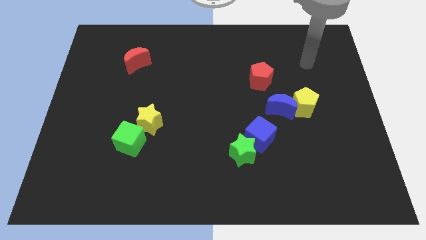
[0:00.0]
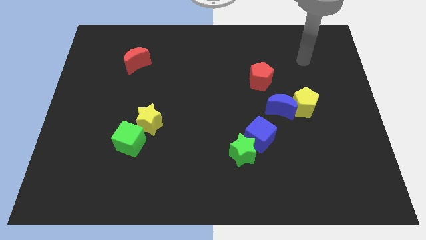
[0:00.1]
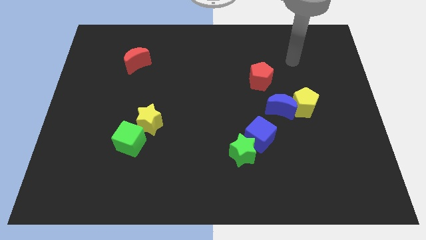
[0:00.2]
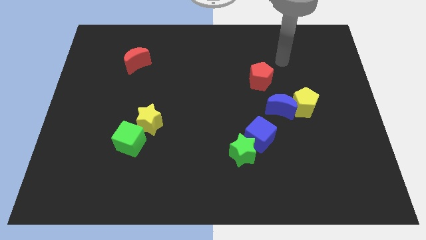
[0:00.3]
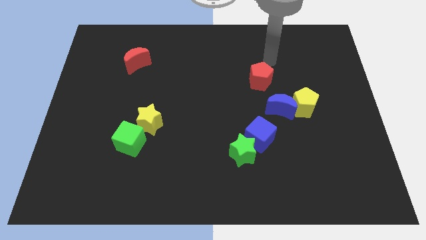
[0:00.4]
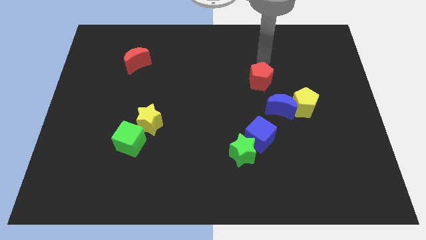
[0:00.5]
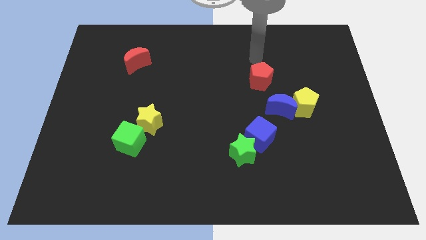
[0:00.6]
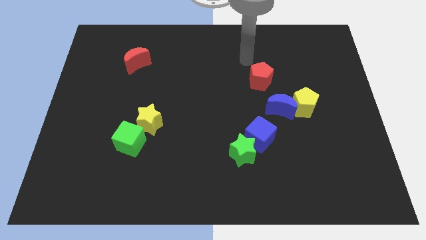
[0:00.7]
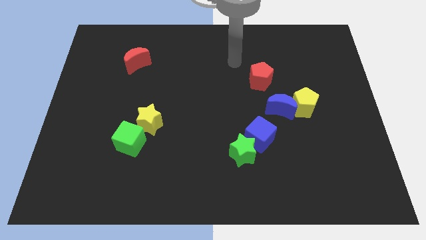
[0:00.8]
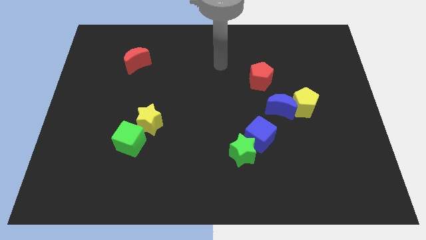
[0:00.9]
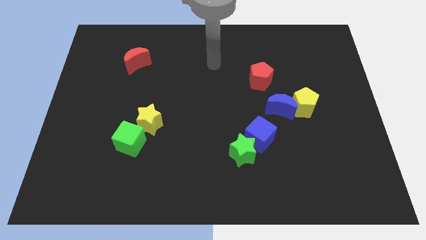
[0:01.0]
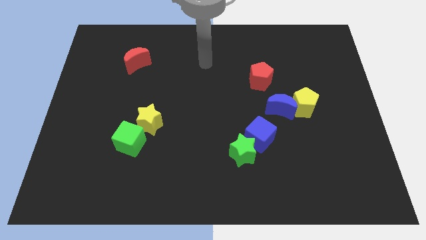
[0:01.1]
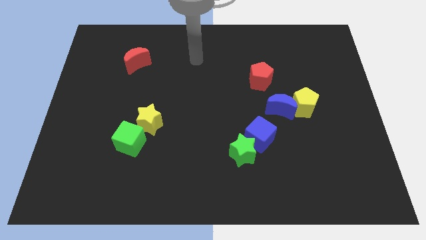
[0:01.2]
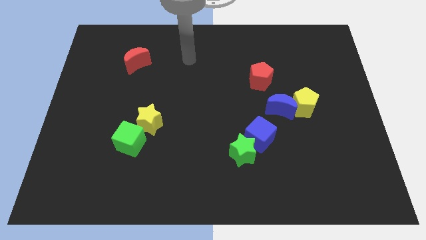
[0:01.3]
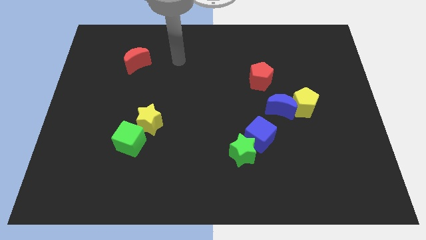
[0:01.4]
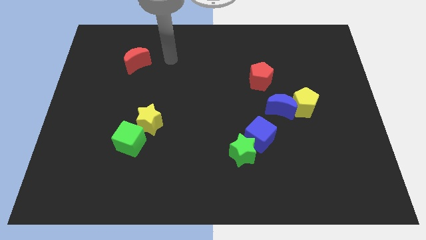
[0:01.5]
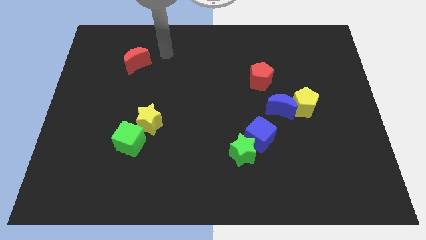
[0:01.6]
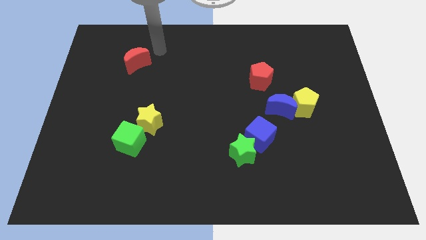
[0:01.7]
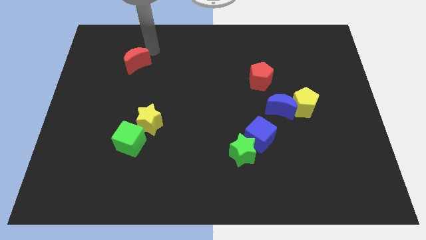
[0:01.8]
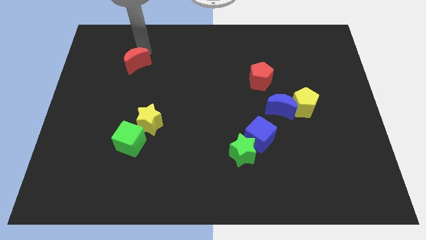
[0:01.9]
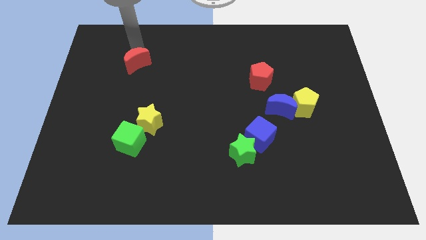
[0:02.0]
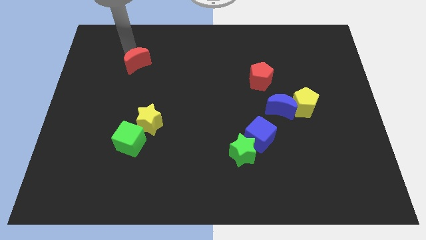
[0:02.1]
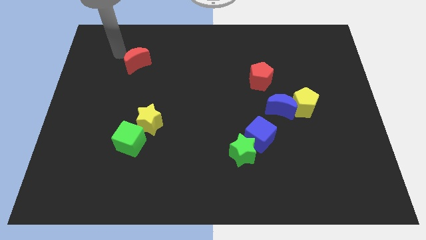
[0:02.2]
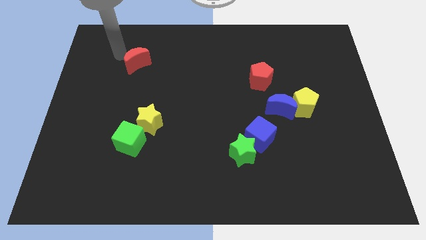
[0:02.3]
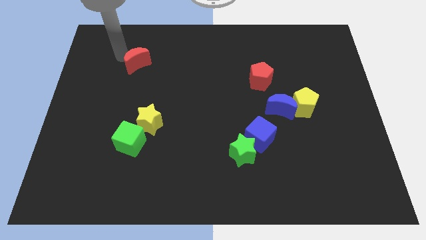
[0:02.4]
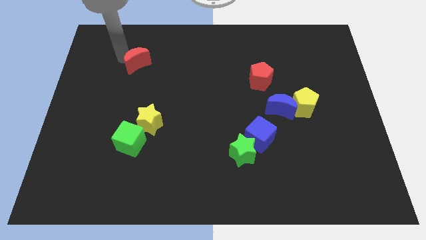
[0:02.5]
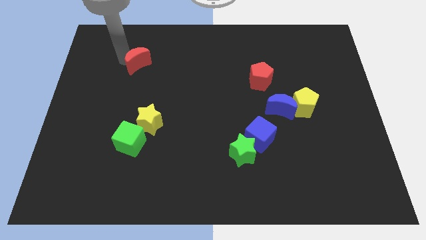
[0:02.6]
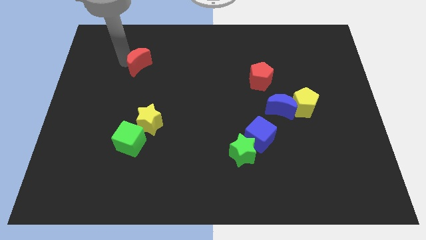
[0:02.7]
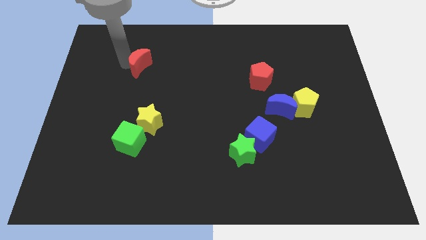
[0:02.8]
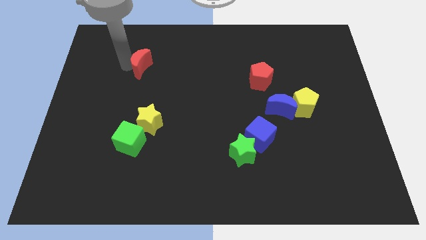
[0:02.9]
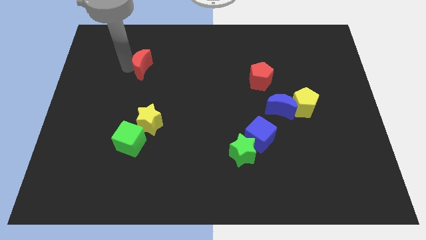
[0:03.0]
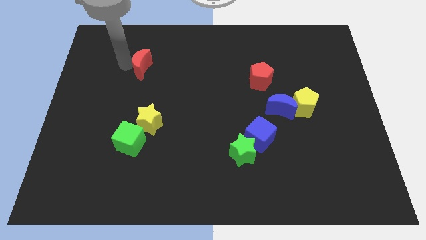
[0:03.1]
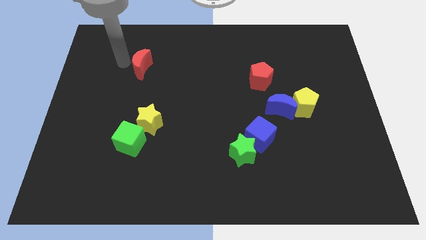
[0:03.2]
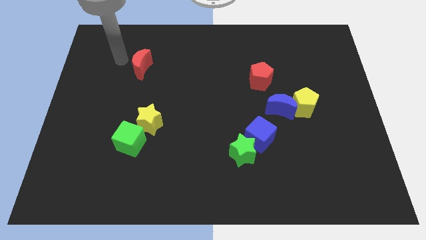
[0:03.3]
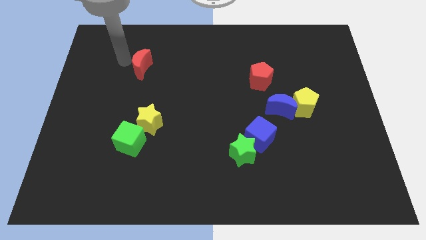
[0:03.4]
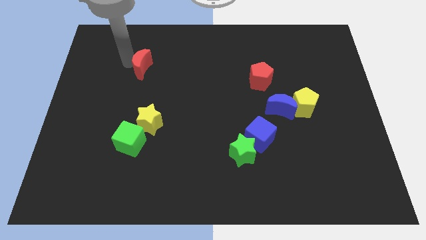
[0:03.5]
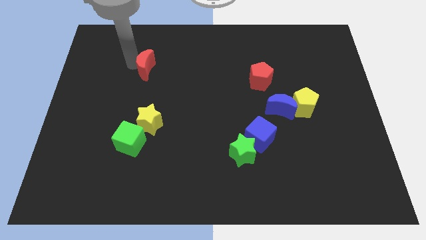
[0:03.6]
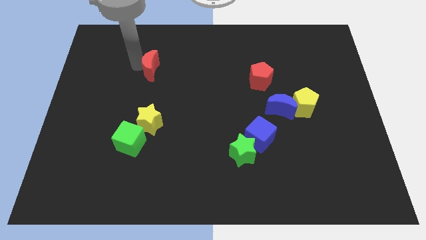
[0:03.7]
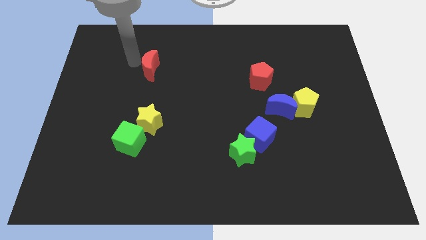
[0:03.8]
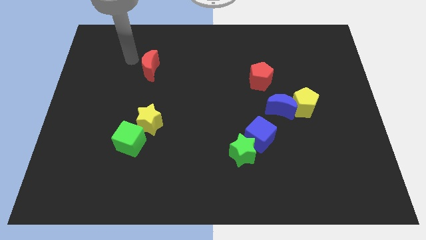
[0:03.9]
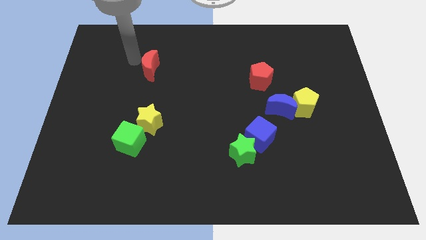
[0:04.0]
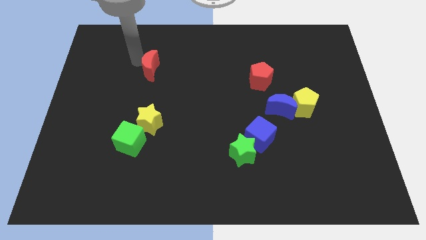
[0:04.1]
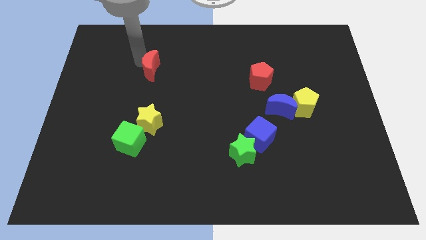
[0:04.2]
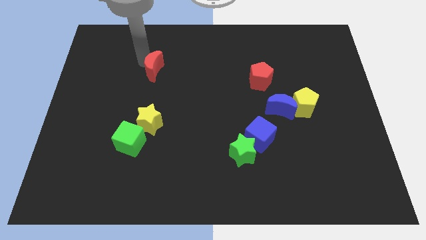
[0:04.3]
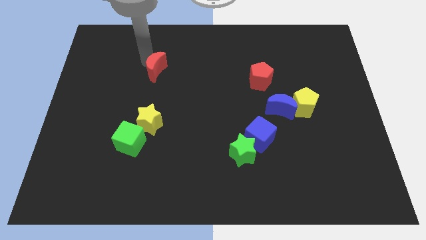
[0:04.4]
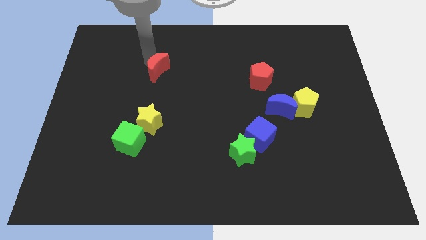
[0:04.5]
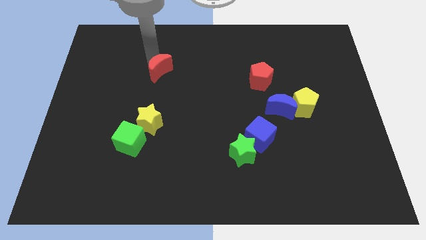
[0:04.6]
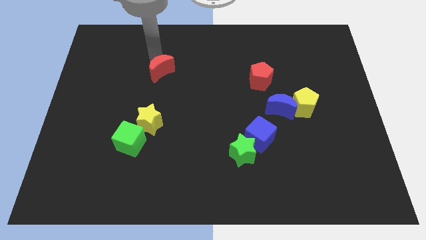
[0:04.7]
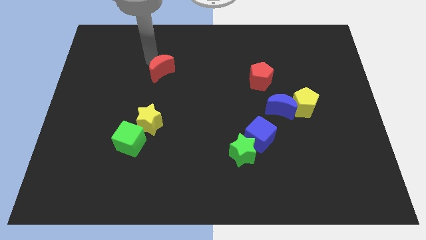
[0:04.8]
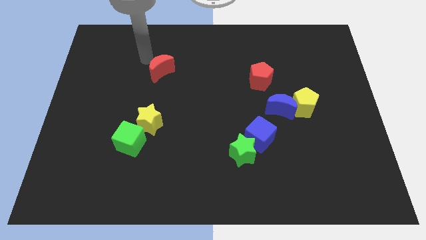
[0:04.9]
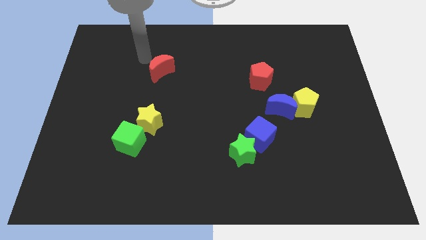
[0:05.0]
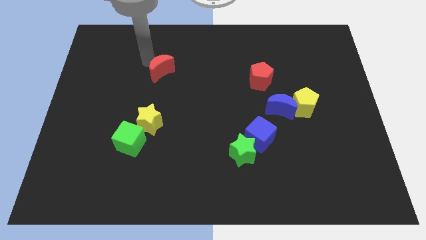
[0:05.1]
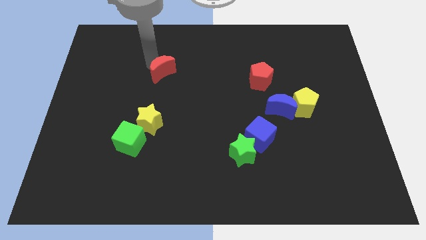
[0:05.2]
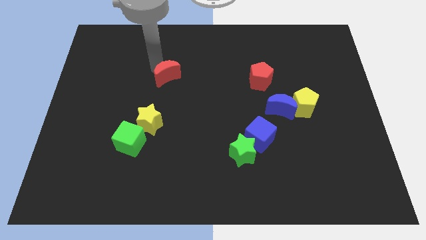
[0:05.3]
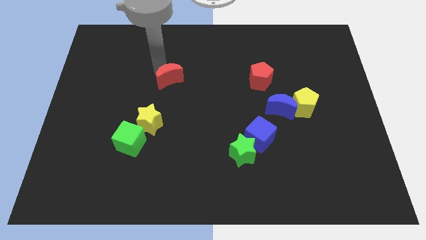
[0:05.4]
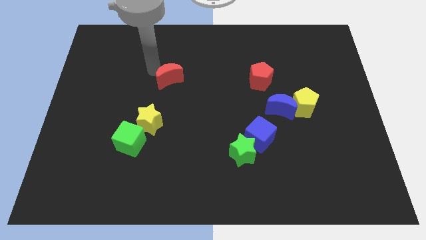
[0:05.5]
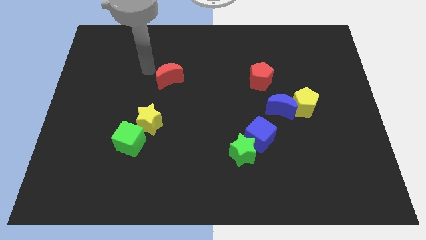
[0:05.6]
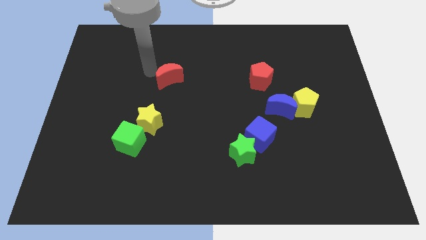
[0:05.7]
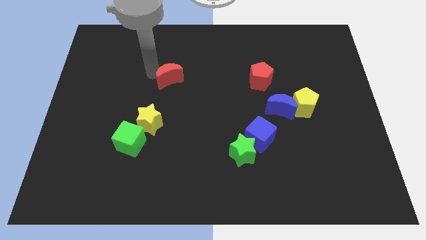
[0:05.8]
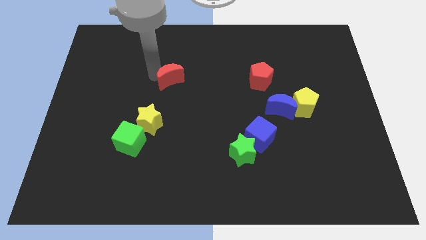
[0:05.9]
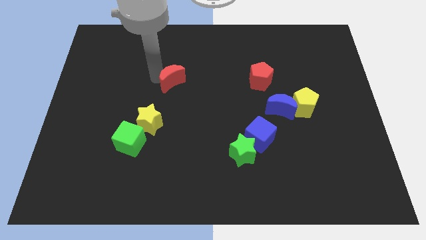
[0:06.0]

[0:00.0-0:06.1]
put the red moon to the middle of the board
